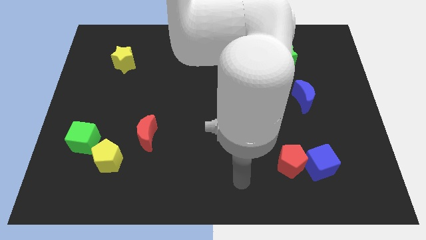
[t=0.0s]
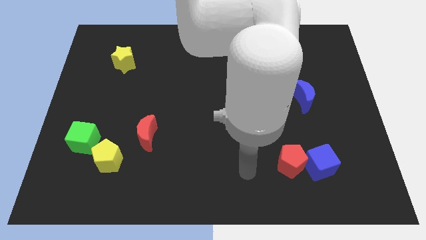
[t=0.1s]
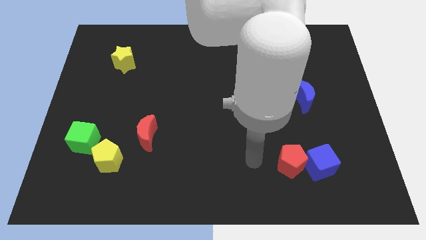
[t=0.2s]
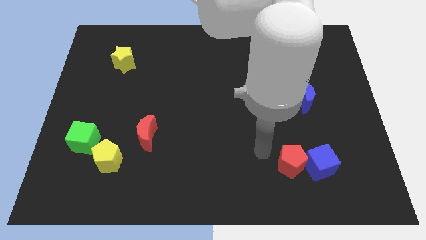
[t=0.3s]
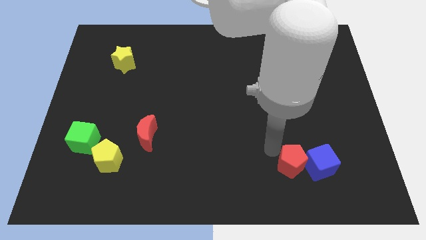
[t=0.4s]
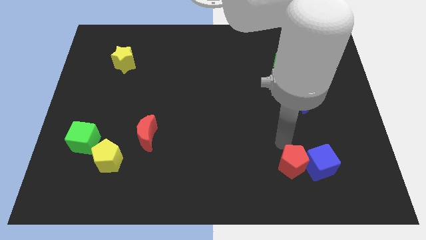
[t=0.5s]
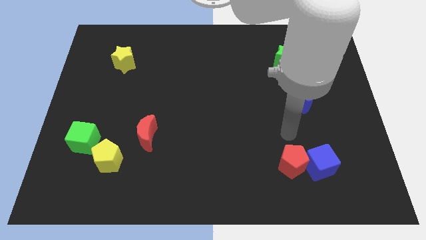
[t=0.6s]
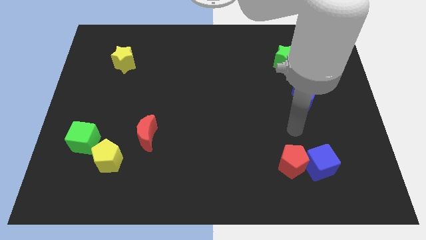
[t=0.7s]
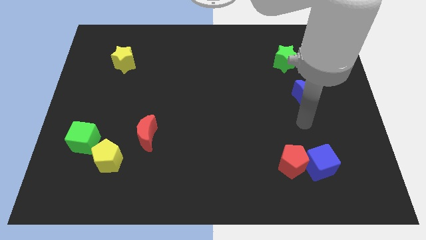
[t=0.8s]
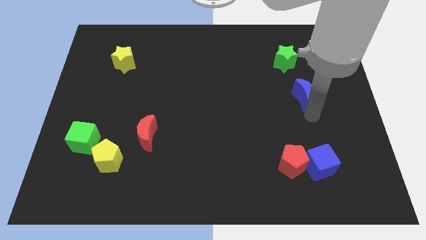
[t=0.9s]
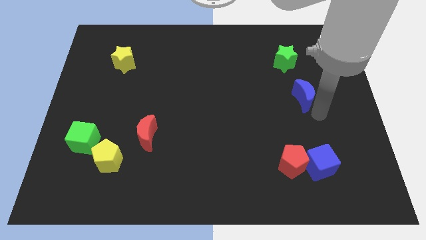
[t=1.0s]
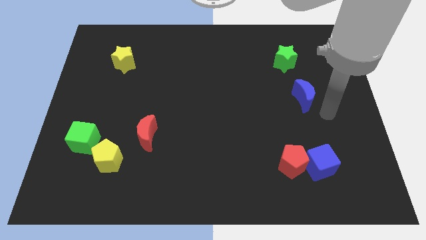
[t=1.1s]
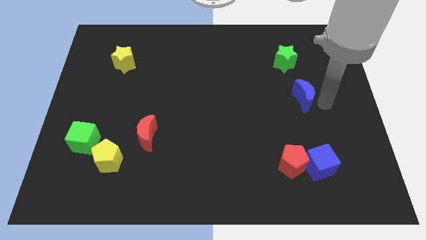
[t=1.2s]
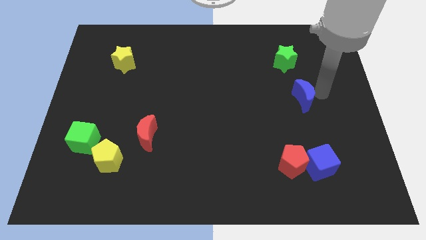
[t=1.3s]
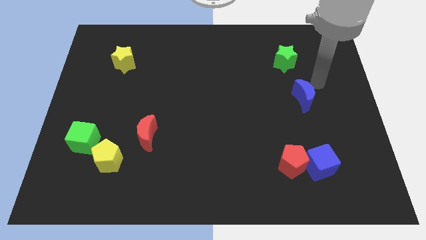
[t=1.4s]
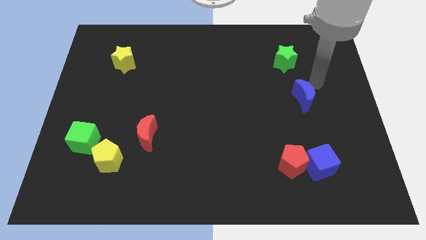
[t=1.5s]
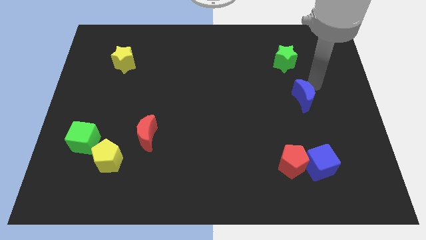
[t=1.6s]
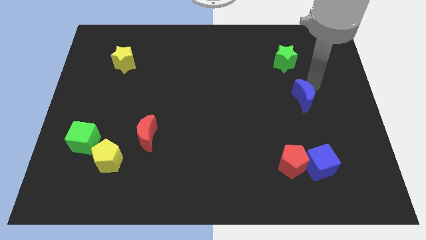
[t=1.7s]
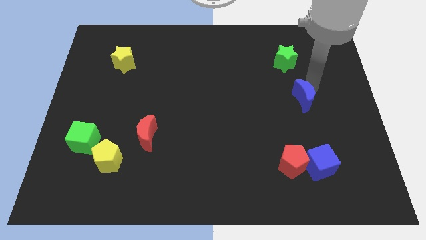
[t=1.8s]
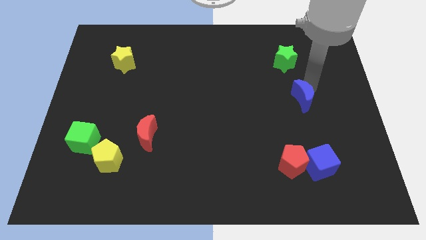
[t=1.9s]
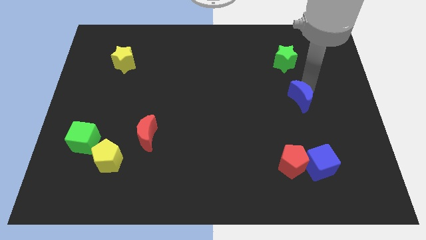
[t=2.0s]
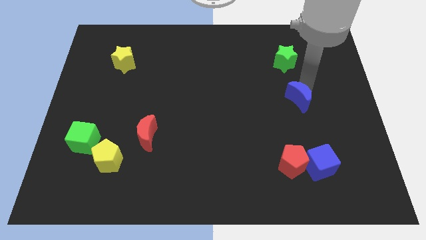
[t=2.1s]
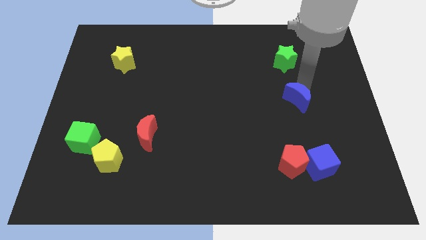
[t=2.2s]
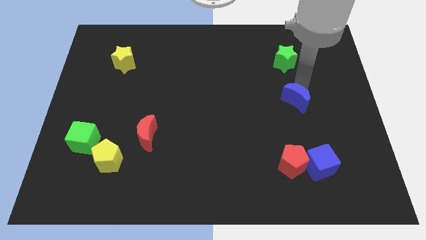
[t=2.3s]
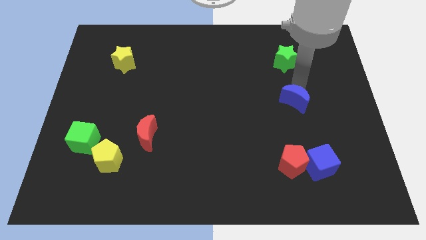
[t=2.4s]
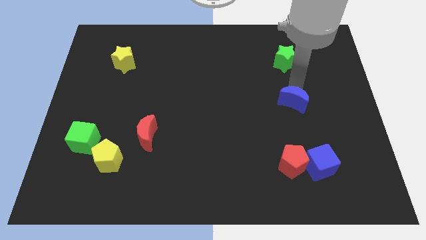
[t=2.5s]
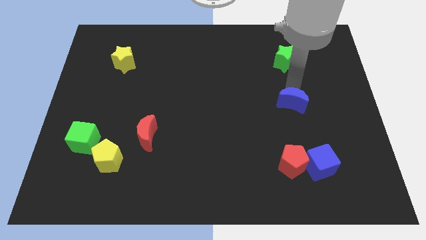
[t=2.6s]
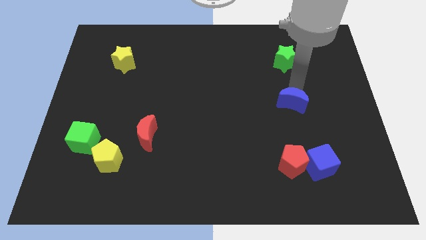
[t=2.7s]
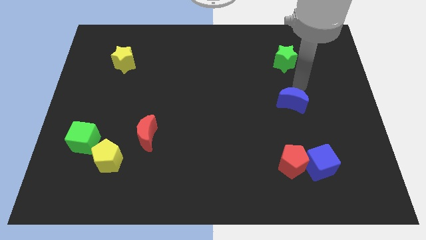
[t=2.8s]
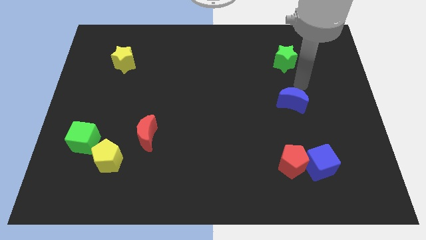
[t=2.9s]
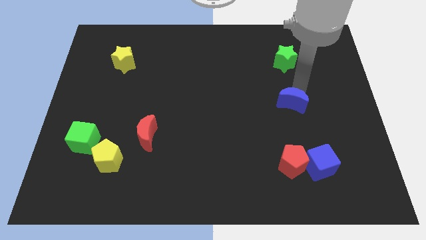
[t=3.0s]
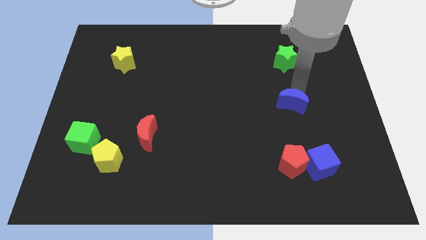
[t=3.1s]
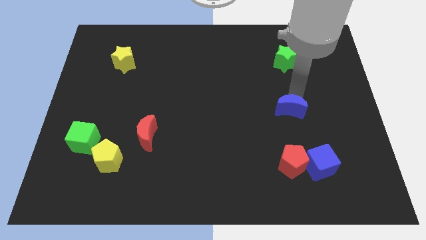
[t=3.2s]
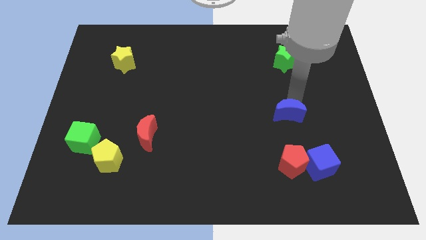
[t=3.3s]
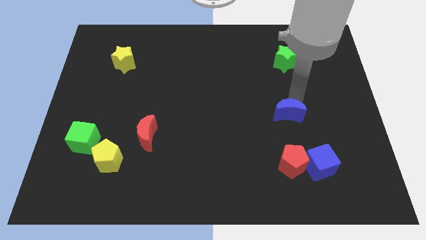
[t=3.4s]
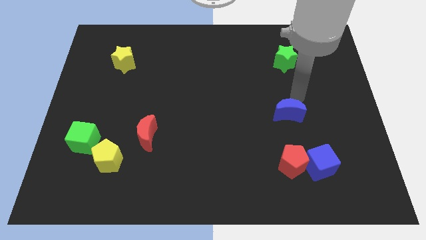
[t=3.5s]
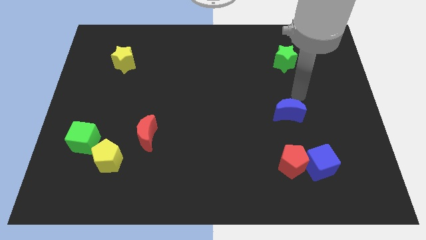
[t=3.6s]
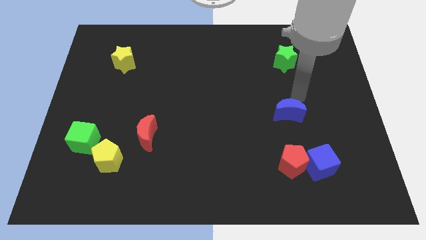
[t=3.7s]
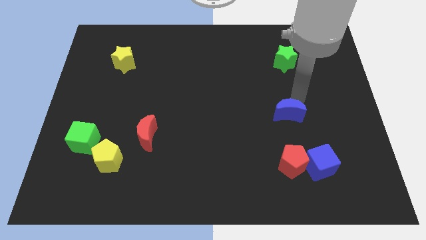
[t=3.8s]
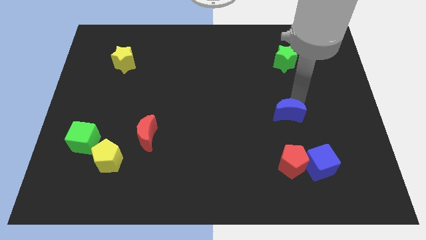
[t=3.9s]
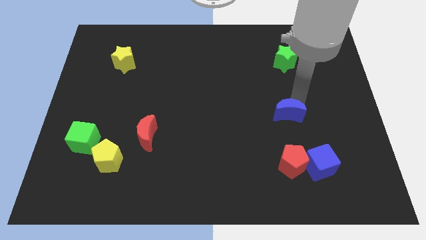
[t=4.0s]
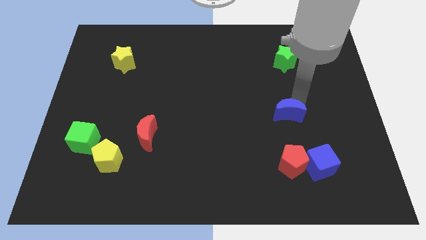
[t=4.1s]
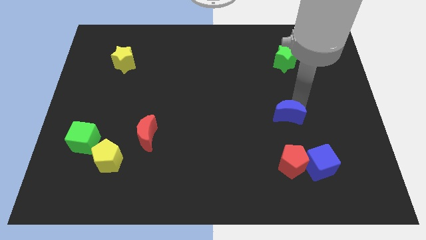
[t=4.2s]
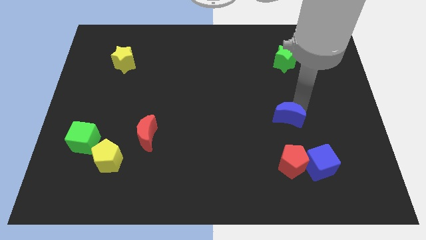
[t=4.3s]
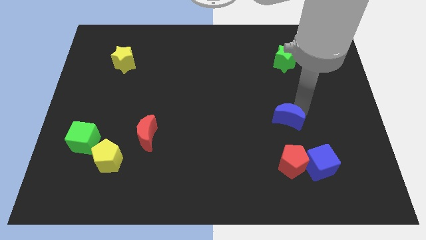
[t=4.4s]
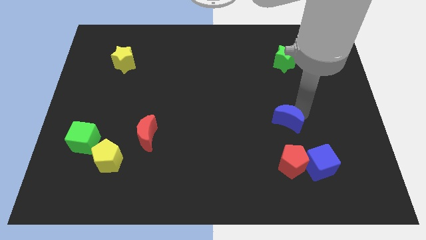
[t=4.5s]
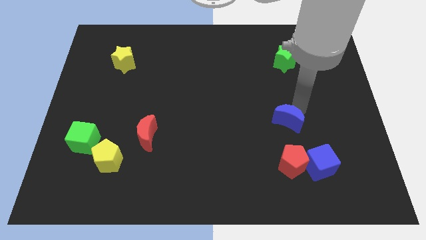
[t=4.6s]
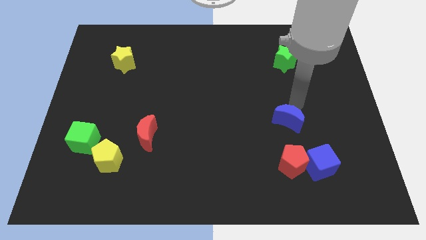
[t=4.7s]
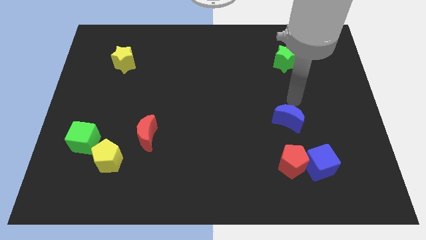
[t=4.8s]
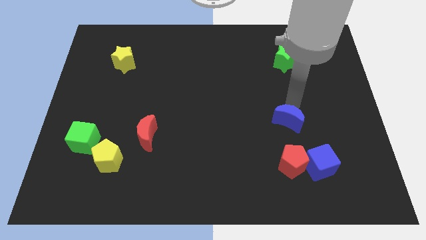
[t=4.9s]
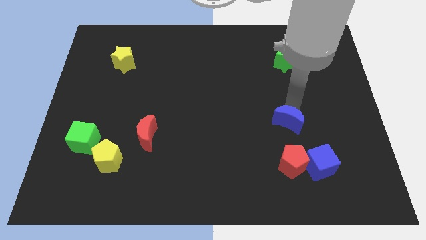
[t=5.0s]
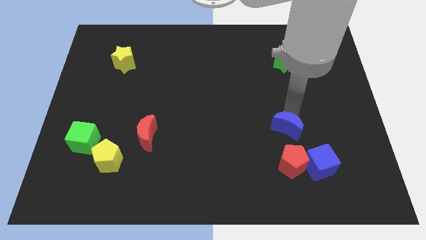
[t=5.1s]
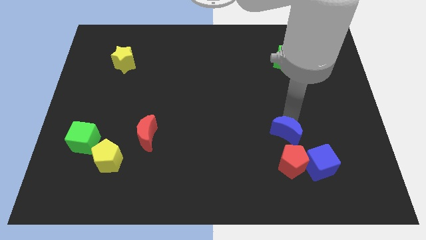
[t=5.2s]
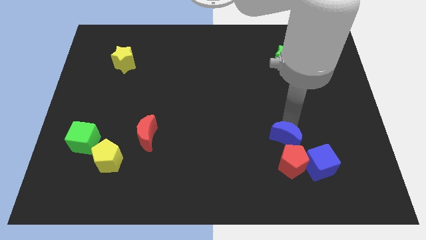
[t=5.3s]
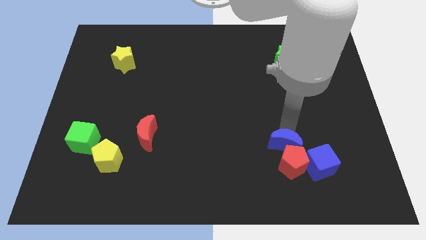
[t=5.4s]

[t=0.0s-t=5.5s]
slide the blue moon close to the red pentagon
